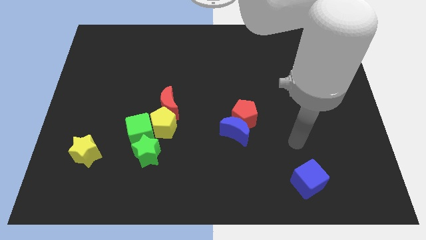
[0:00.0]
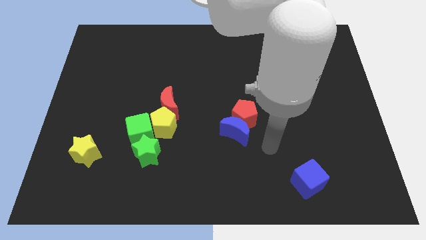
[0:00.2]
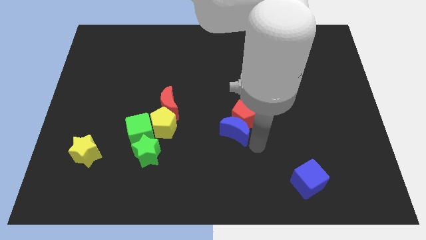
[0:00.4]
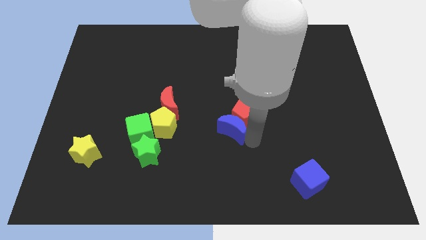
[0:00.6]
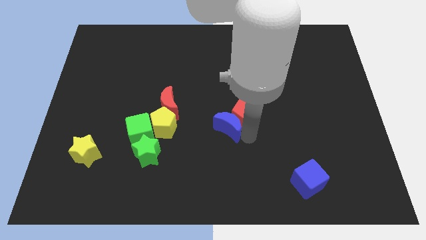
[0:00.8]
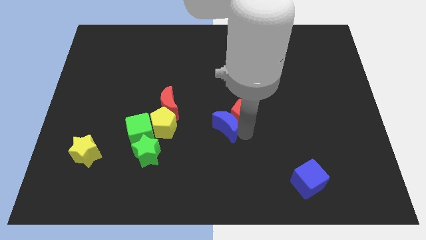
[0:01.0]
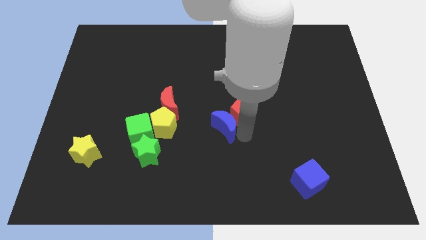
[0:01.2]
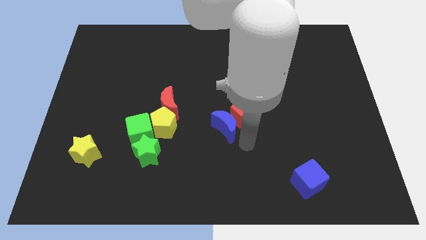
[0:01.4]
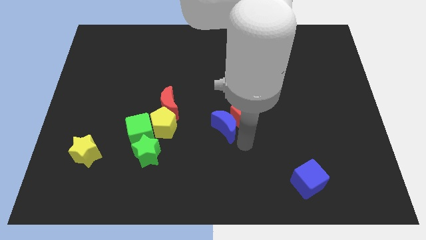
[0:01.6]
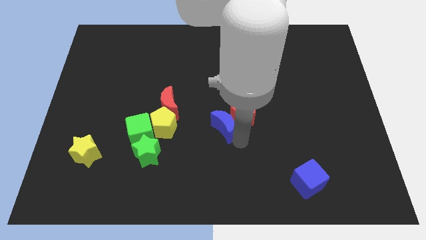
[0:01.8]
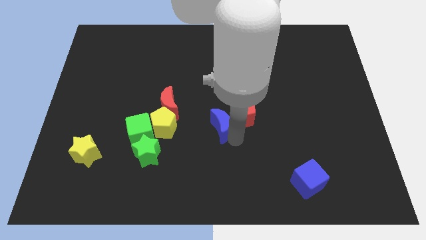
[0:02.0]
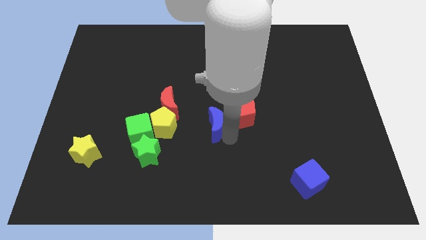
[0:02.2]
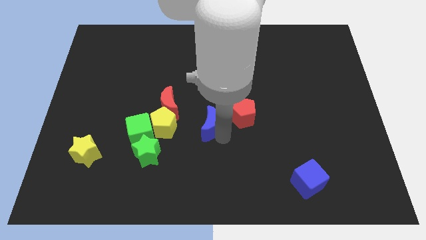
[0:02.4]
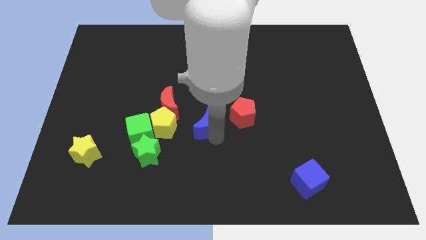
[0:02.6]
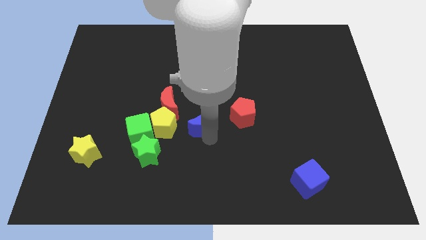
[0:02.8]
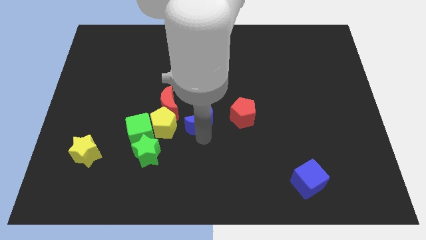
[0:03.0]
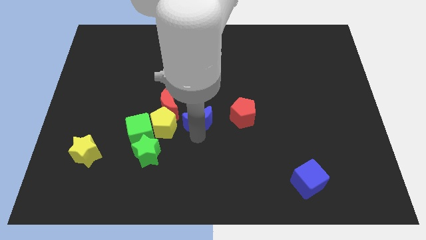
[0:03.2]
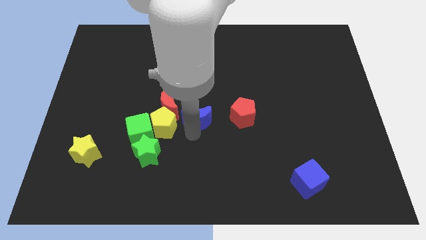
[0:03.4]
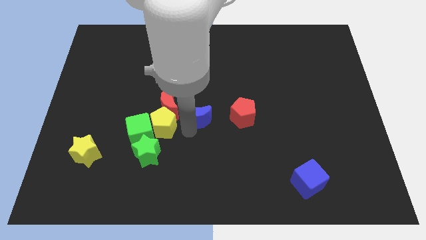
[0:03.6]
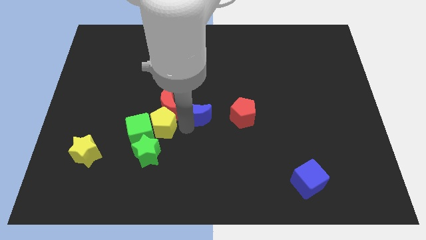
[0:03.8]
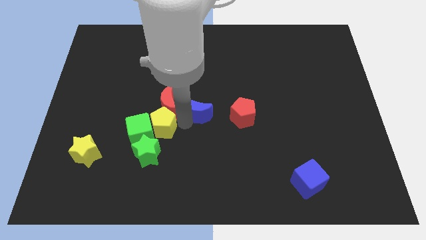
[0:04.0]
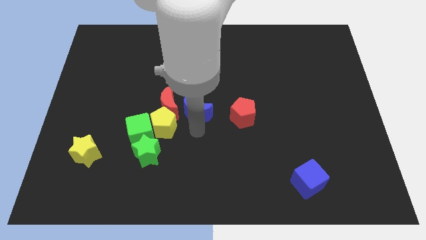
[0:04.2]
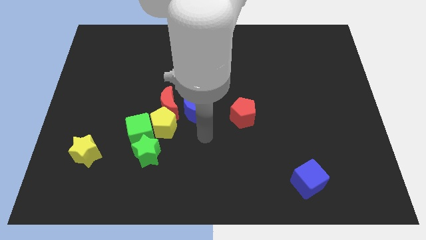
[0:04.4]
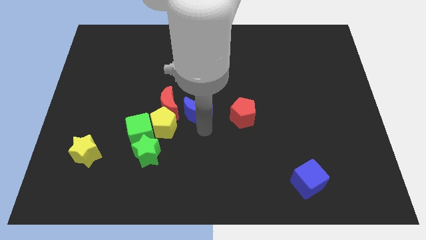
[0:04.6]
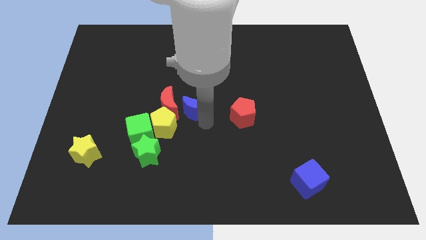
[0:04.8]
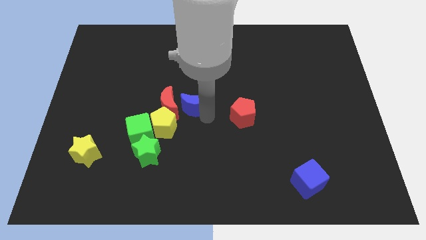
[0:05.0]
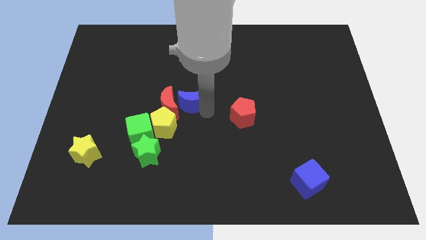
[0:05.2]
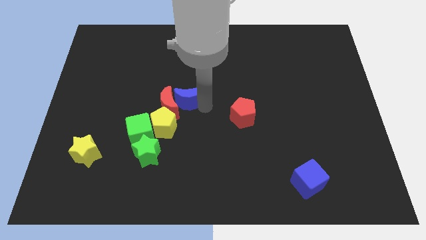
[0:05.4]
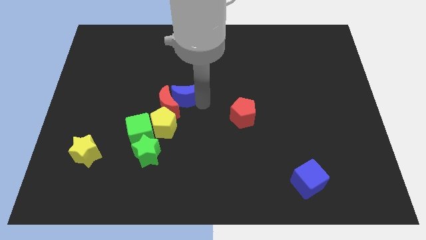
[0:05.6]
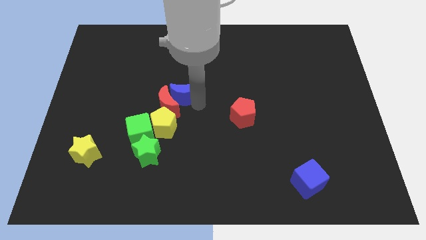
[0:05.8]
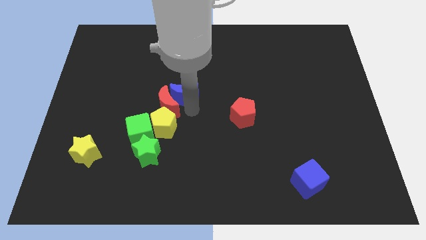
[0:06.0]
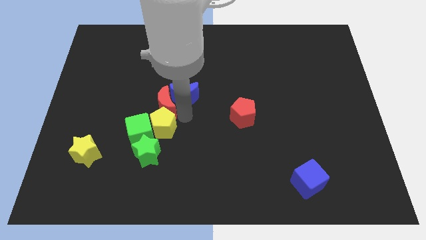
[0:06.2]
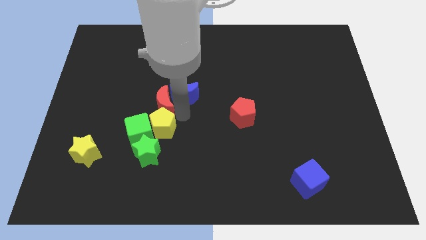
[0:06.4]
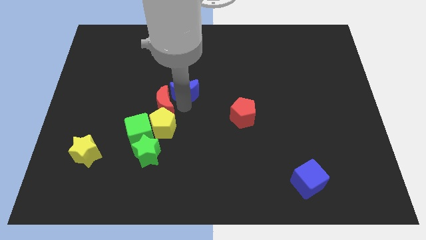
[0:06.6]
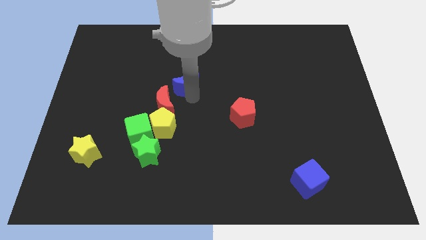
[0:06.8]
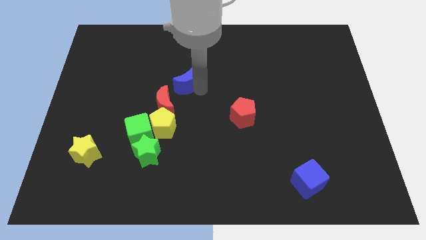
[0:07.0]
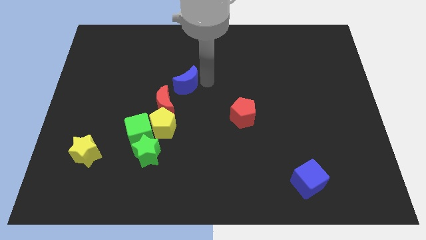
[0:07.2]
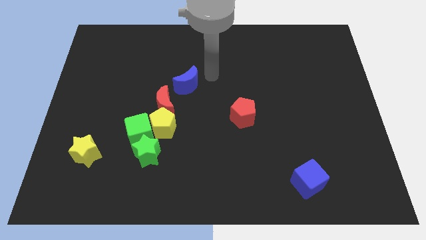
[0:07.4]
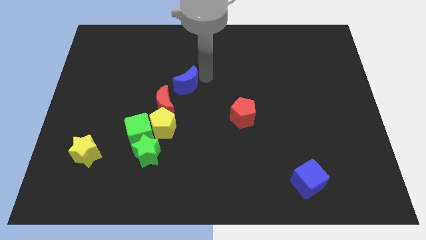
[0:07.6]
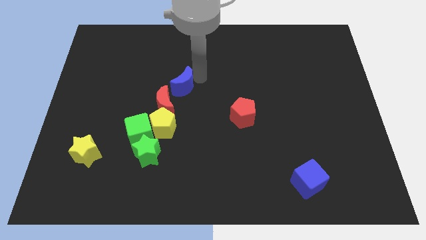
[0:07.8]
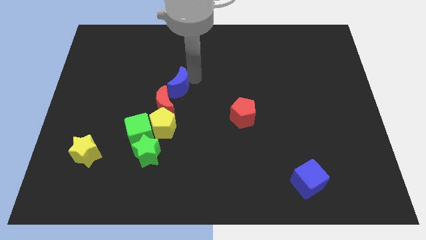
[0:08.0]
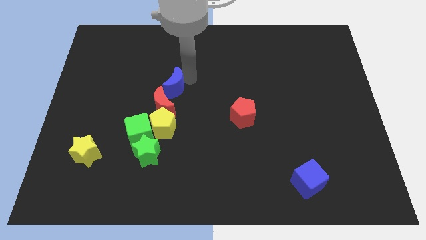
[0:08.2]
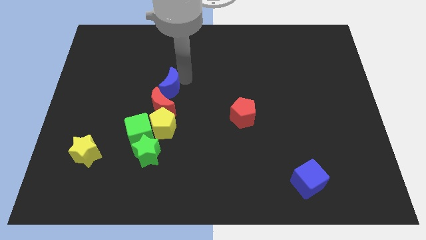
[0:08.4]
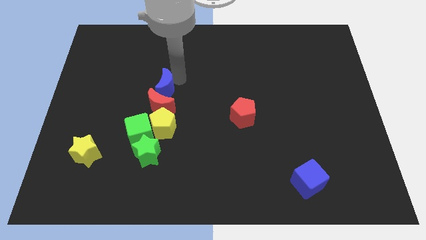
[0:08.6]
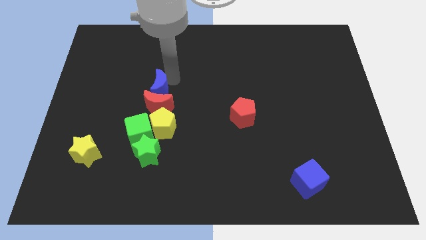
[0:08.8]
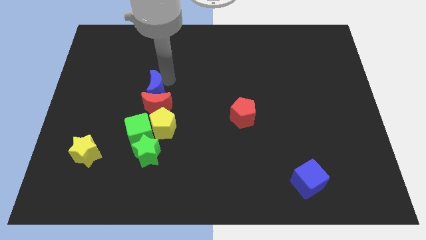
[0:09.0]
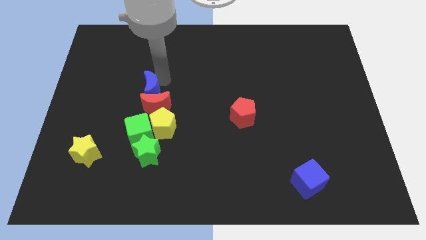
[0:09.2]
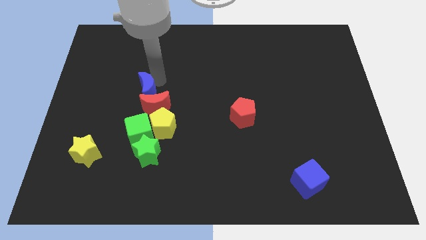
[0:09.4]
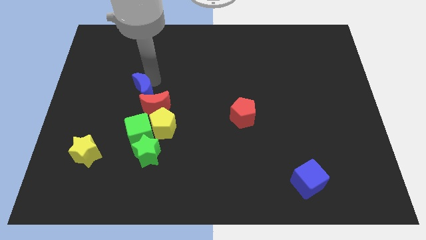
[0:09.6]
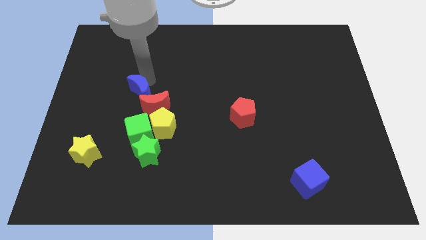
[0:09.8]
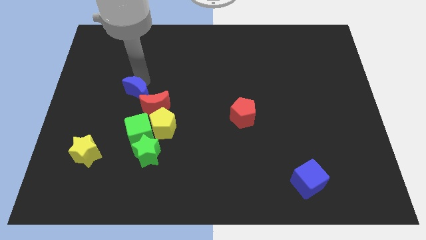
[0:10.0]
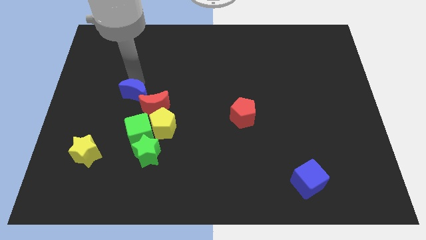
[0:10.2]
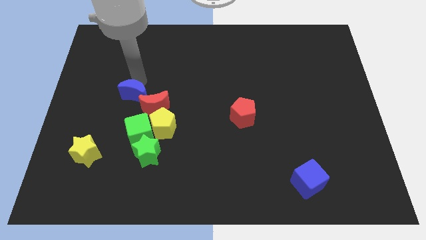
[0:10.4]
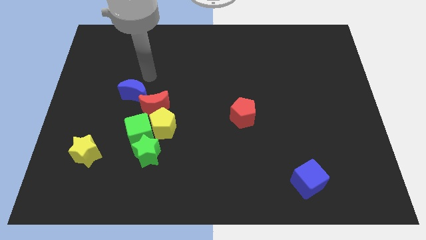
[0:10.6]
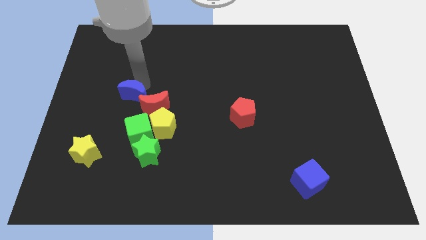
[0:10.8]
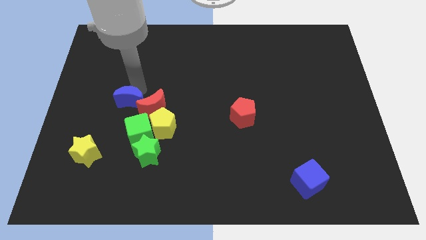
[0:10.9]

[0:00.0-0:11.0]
move the blue moon to the top left side of the green cube

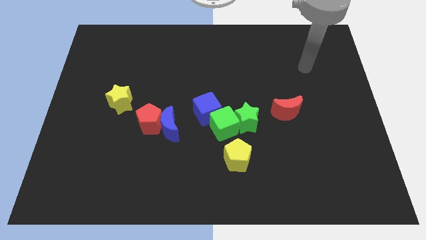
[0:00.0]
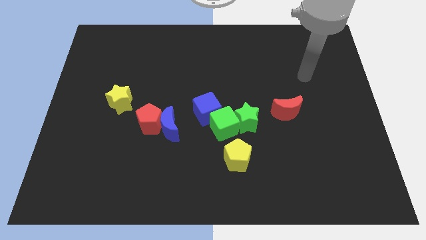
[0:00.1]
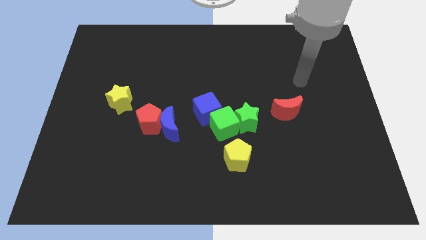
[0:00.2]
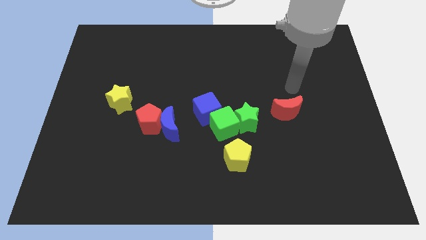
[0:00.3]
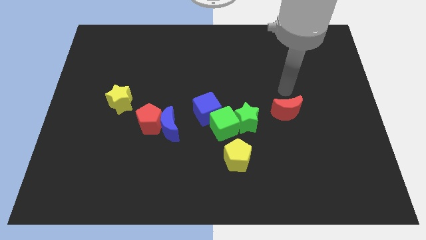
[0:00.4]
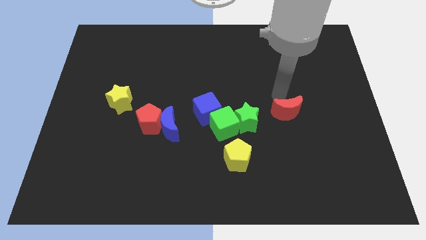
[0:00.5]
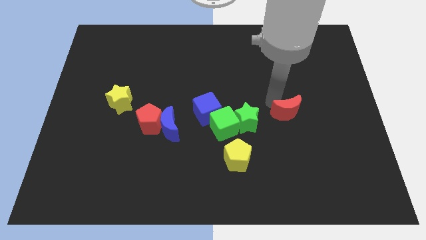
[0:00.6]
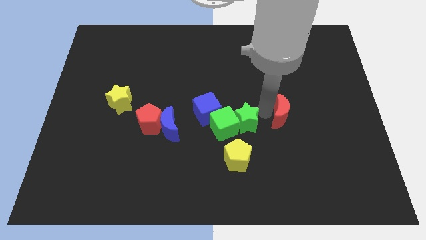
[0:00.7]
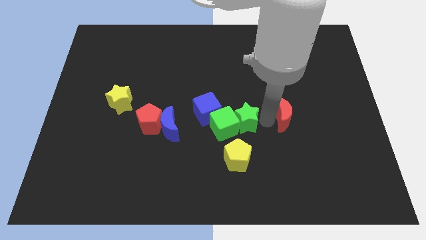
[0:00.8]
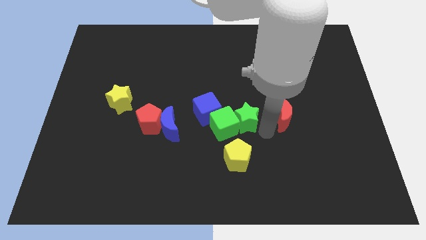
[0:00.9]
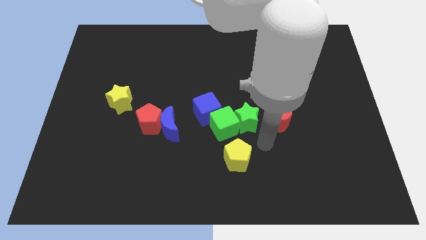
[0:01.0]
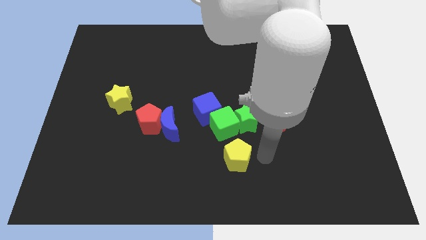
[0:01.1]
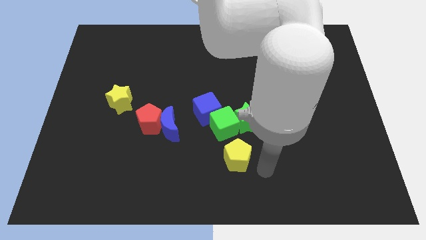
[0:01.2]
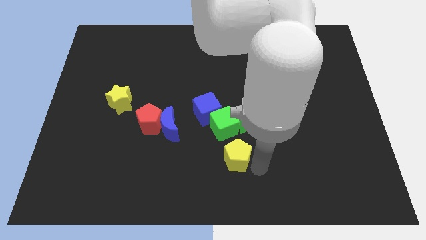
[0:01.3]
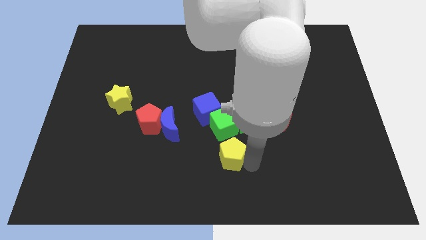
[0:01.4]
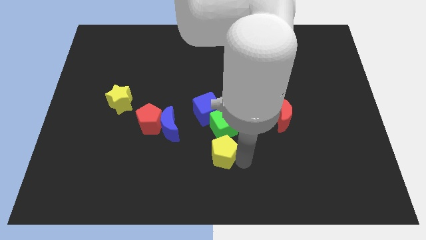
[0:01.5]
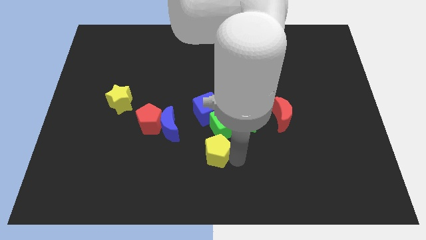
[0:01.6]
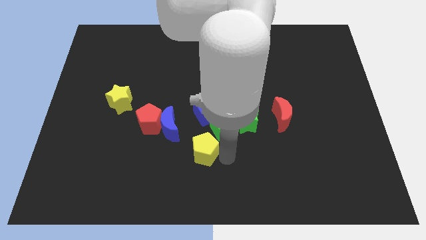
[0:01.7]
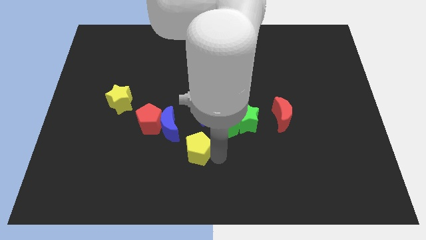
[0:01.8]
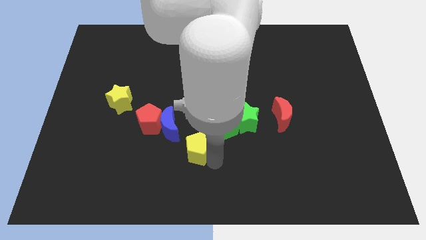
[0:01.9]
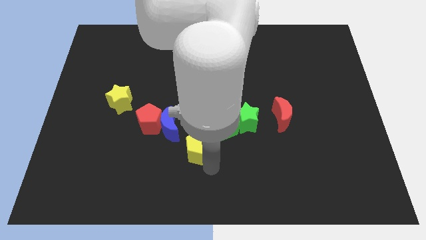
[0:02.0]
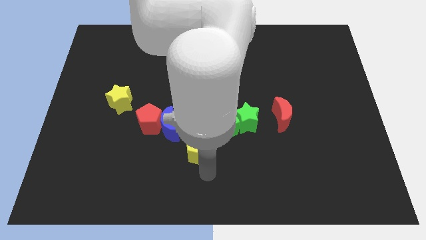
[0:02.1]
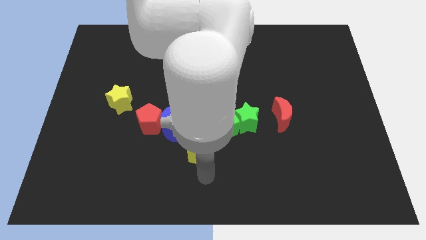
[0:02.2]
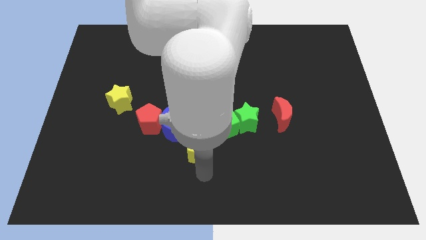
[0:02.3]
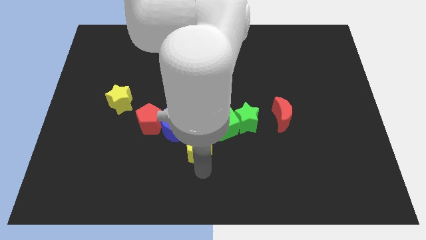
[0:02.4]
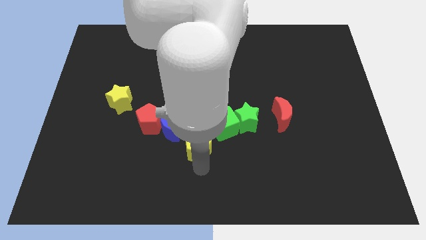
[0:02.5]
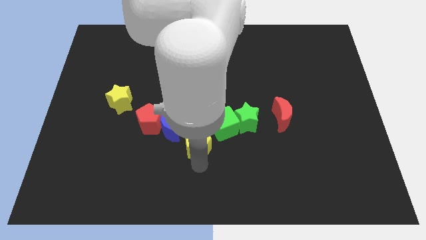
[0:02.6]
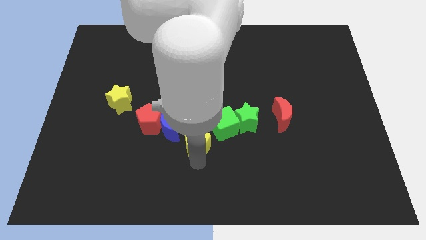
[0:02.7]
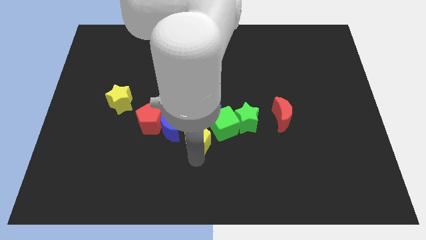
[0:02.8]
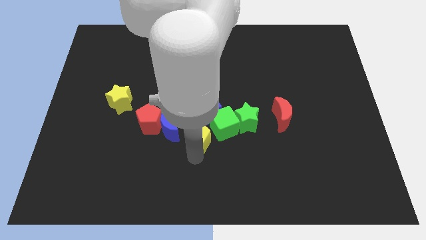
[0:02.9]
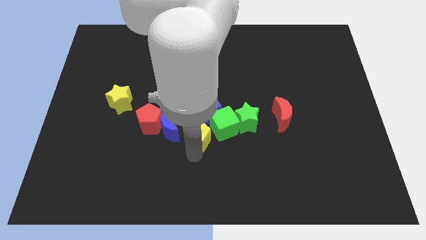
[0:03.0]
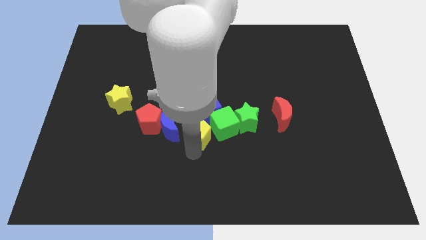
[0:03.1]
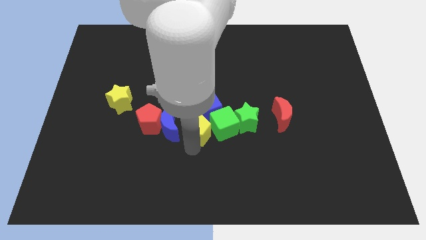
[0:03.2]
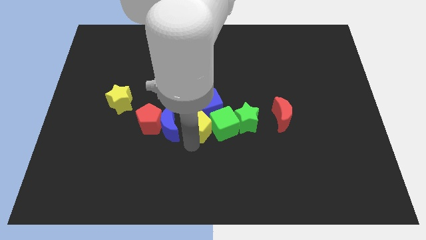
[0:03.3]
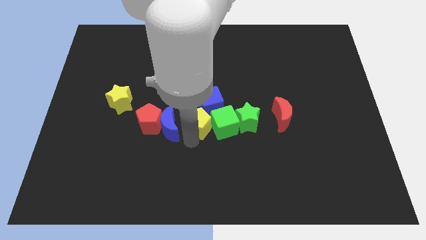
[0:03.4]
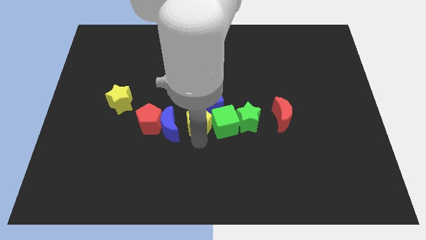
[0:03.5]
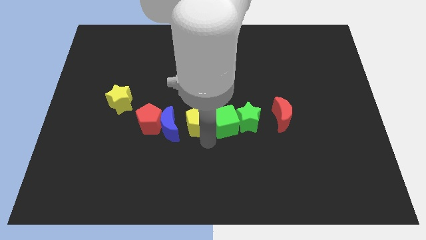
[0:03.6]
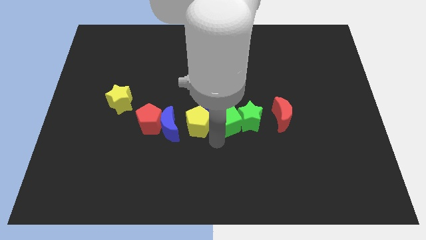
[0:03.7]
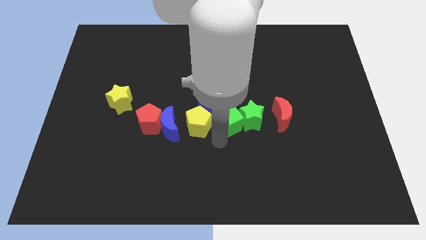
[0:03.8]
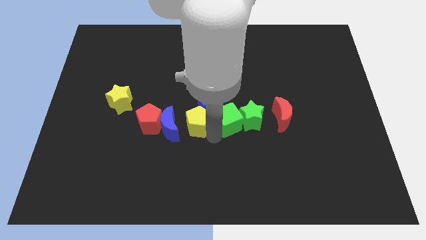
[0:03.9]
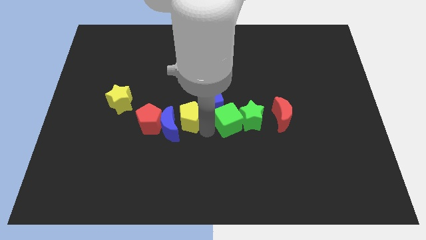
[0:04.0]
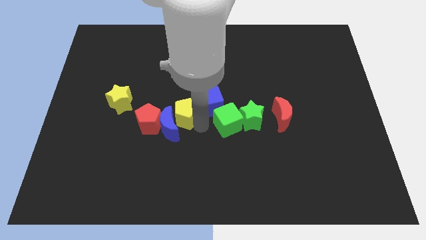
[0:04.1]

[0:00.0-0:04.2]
slide the yellow pentagon to the top right of the red pentagon
